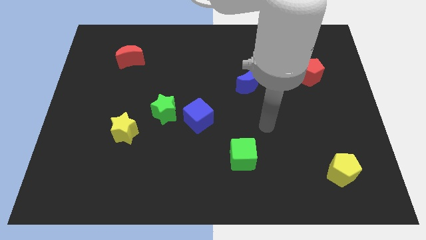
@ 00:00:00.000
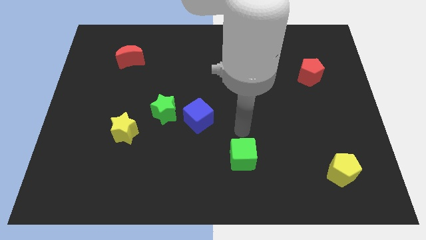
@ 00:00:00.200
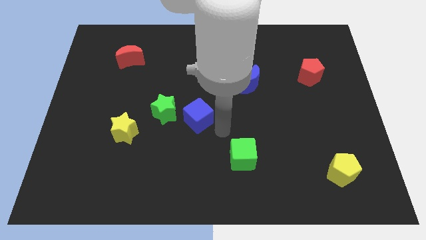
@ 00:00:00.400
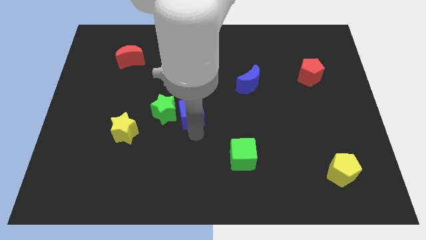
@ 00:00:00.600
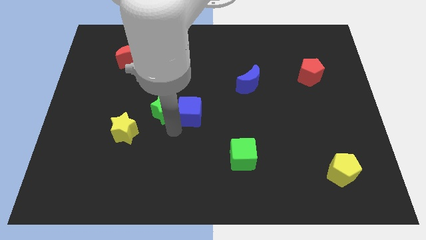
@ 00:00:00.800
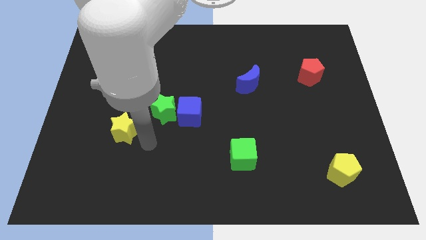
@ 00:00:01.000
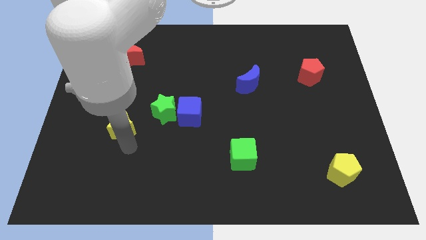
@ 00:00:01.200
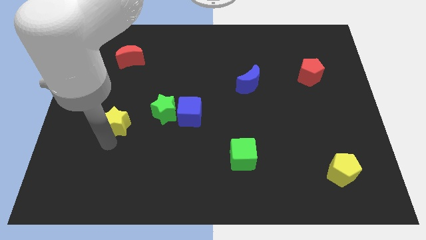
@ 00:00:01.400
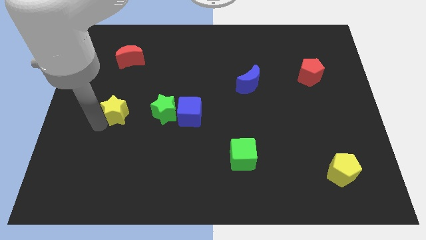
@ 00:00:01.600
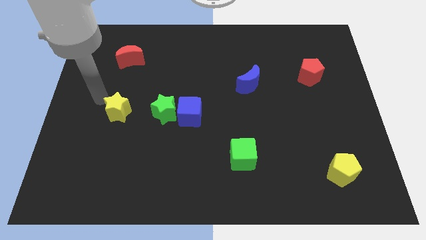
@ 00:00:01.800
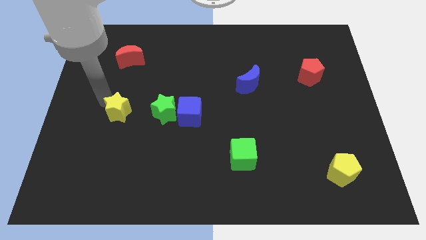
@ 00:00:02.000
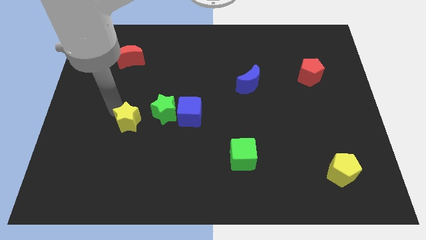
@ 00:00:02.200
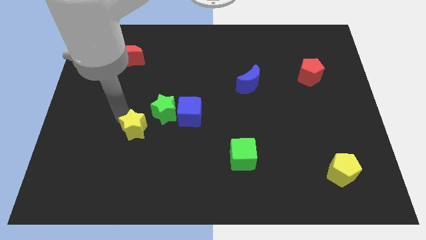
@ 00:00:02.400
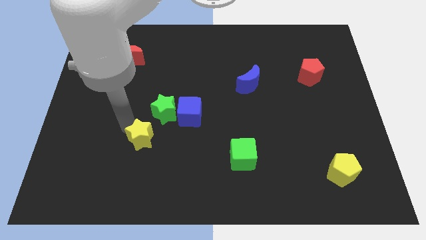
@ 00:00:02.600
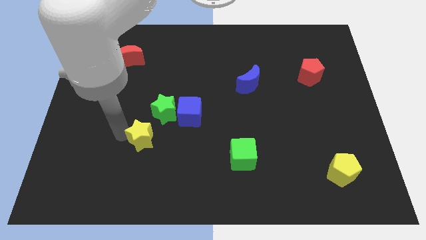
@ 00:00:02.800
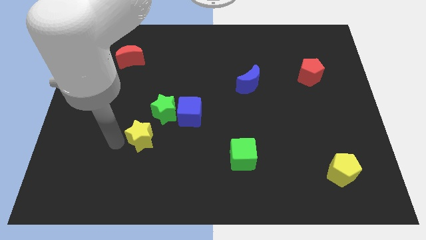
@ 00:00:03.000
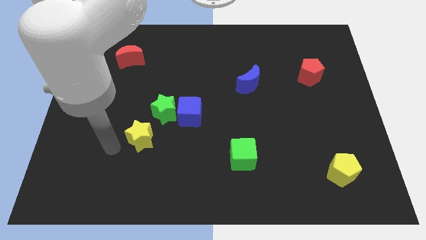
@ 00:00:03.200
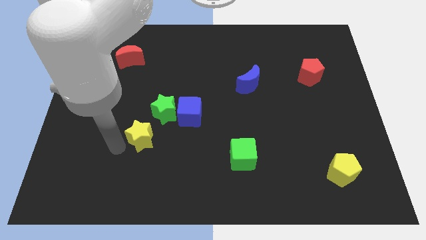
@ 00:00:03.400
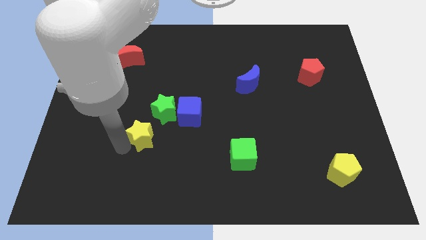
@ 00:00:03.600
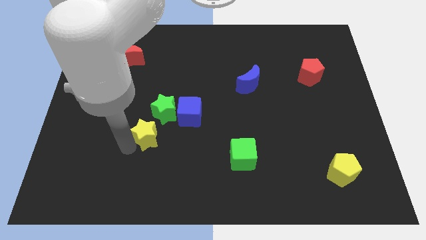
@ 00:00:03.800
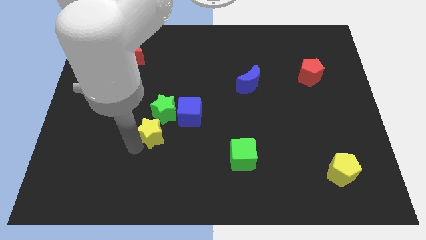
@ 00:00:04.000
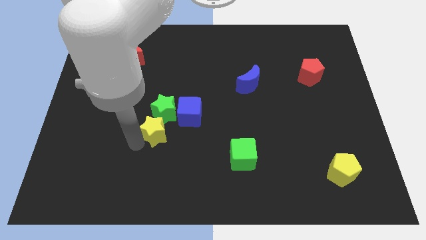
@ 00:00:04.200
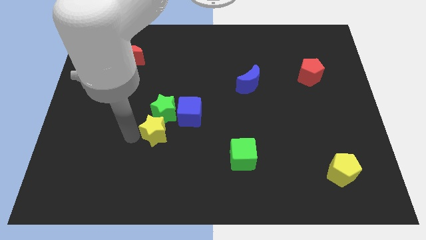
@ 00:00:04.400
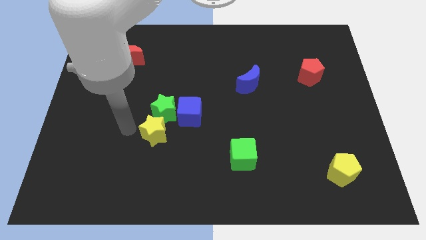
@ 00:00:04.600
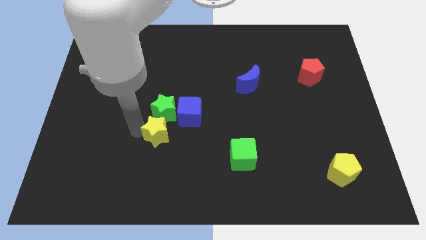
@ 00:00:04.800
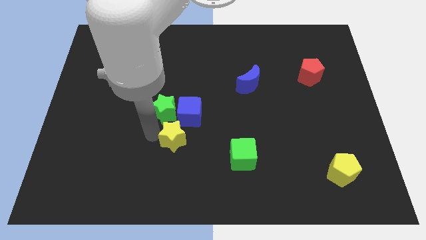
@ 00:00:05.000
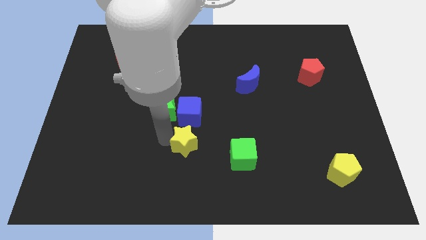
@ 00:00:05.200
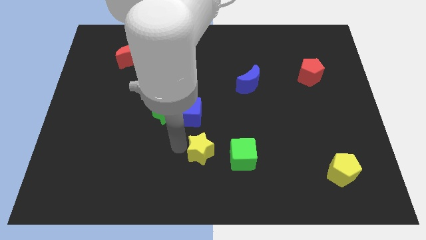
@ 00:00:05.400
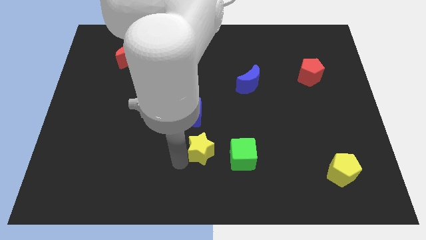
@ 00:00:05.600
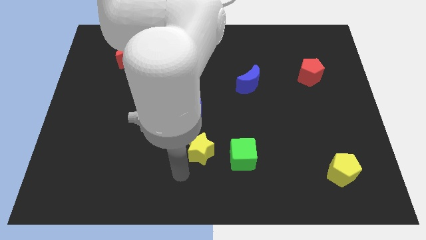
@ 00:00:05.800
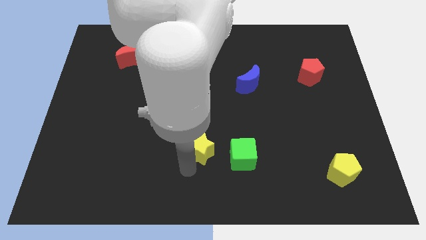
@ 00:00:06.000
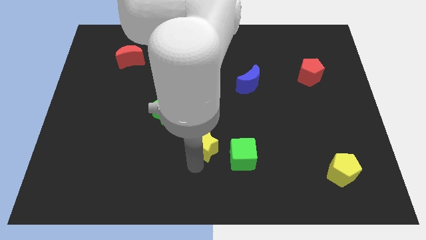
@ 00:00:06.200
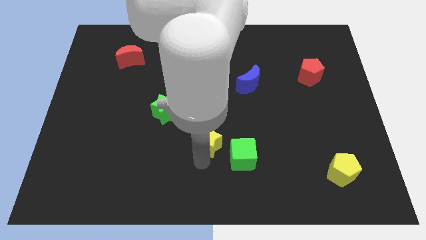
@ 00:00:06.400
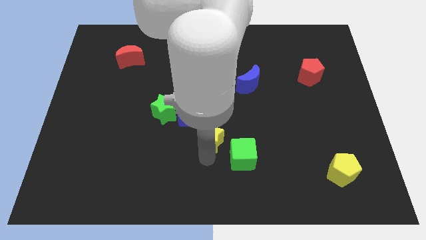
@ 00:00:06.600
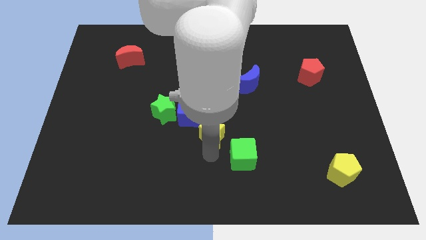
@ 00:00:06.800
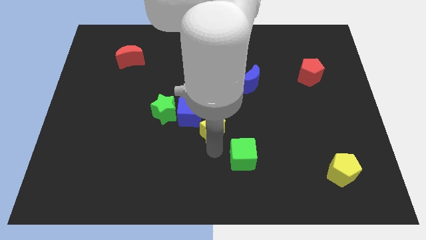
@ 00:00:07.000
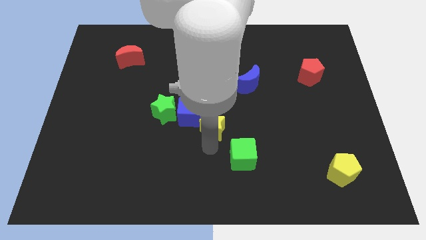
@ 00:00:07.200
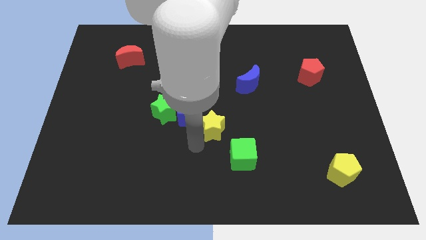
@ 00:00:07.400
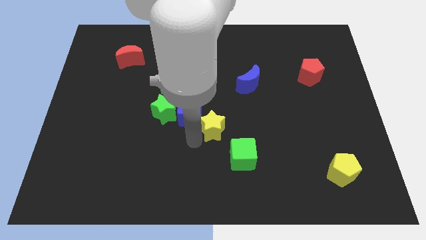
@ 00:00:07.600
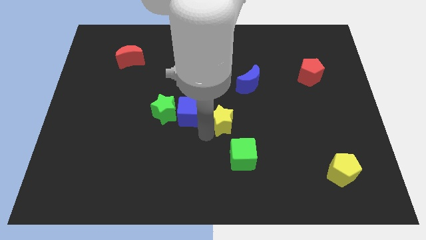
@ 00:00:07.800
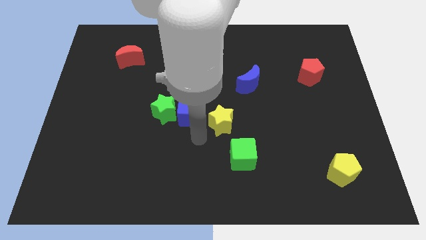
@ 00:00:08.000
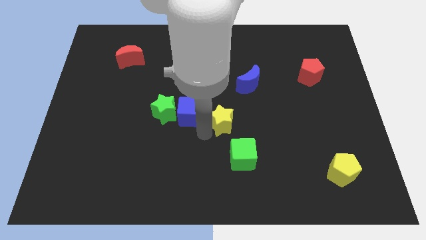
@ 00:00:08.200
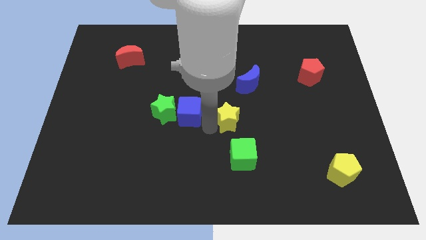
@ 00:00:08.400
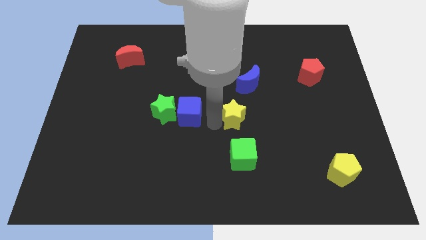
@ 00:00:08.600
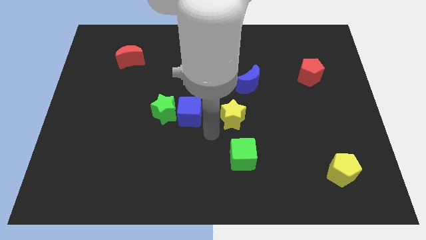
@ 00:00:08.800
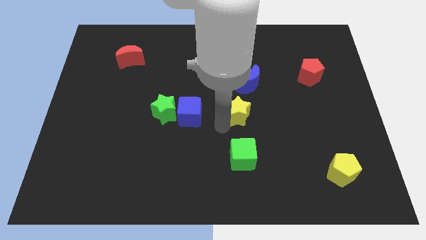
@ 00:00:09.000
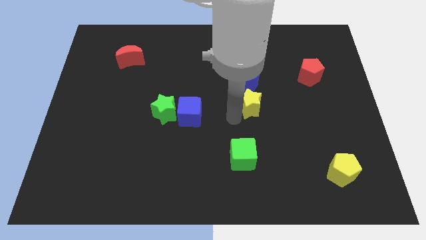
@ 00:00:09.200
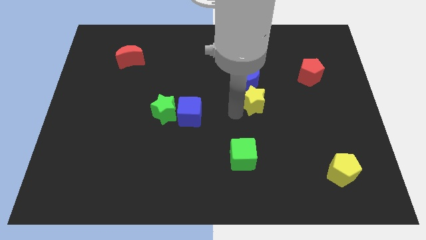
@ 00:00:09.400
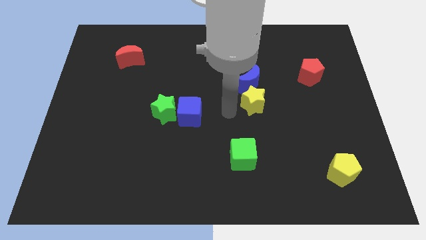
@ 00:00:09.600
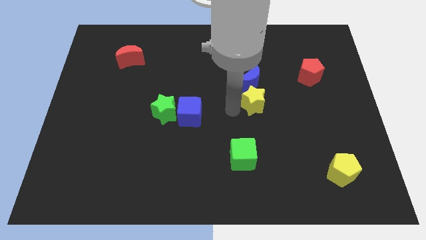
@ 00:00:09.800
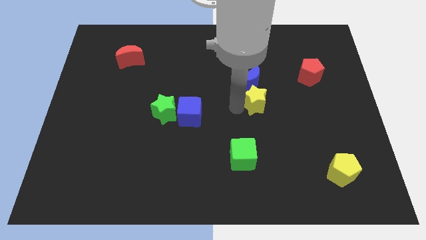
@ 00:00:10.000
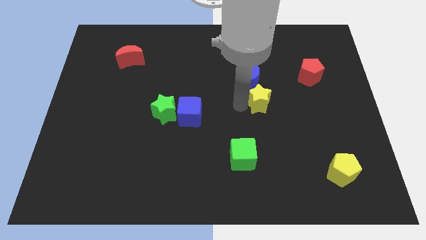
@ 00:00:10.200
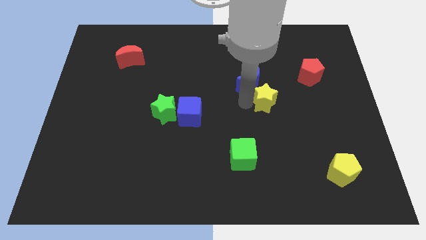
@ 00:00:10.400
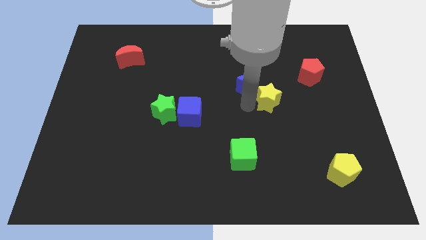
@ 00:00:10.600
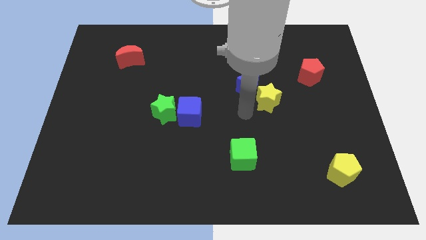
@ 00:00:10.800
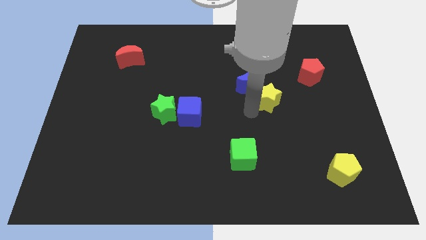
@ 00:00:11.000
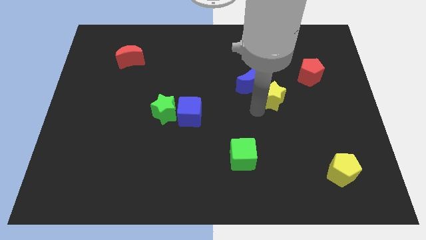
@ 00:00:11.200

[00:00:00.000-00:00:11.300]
slide the yellow star to the bottom left of the red pentagon

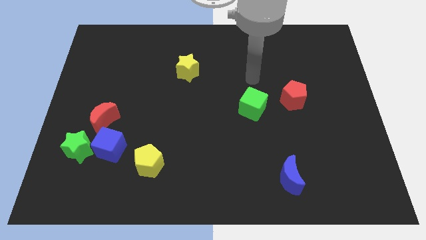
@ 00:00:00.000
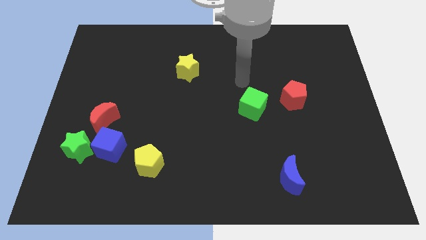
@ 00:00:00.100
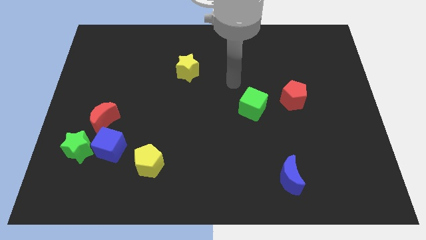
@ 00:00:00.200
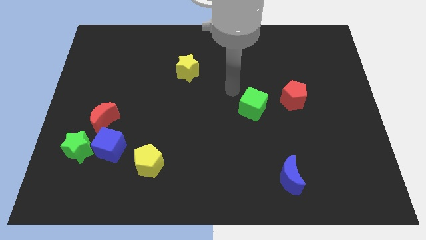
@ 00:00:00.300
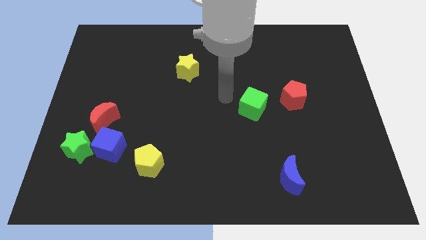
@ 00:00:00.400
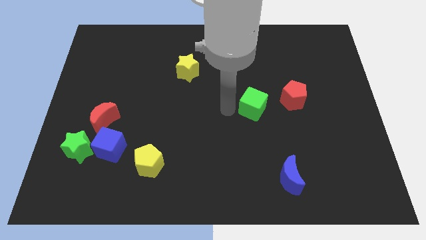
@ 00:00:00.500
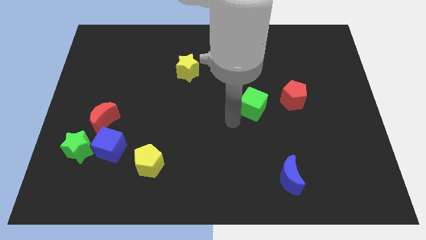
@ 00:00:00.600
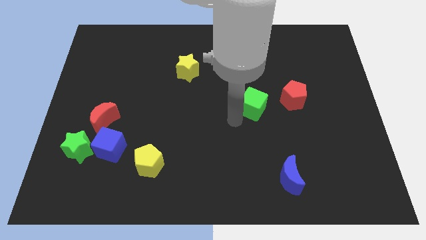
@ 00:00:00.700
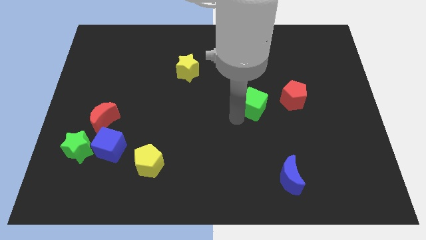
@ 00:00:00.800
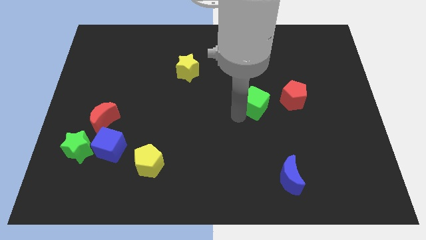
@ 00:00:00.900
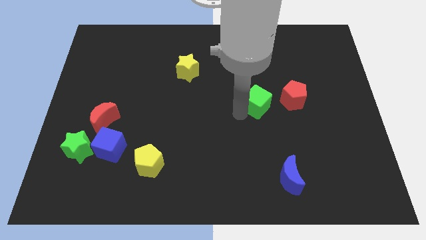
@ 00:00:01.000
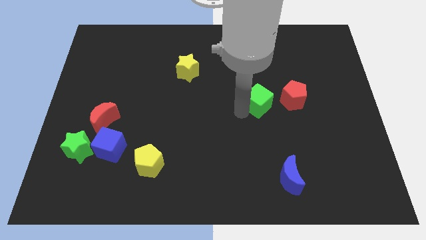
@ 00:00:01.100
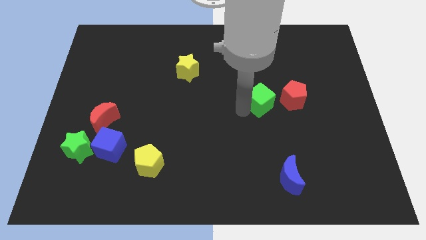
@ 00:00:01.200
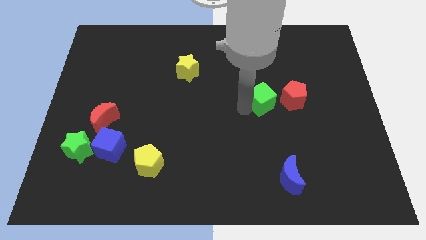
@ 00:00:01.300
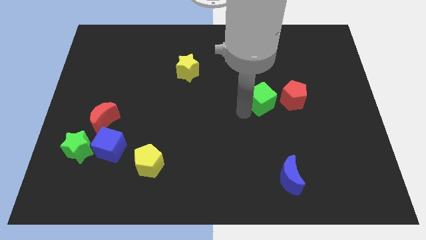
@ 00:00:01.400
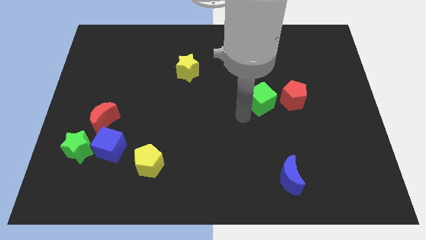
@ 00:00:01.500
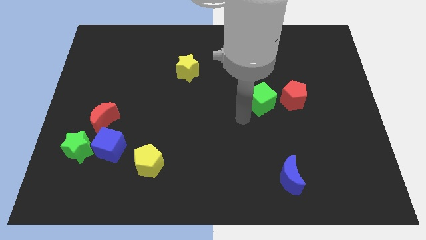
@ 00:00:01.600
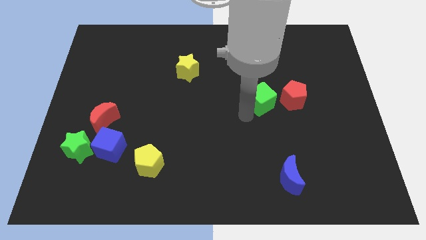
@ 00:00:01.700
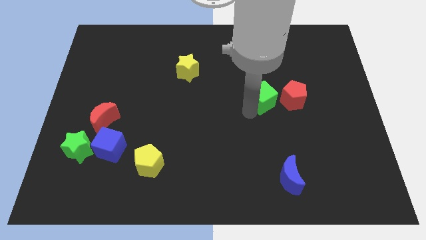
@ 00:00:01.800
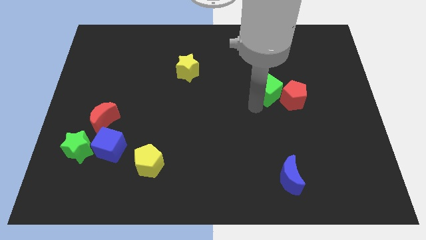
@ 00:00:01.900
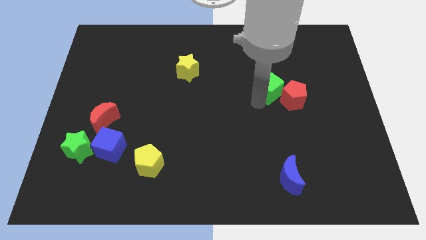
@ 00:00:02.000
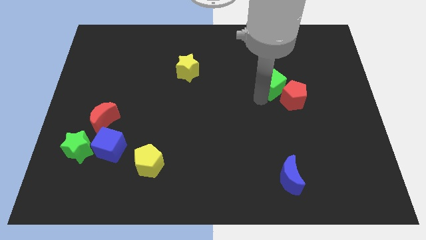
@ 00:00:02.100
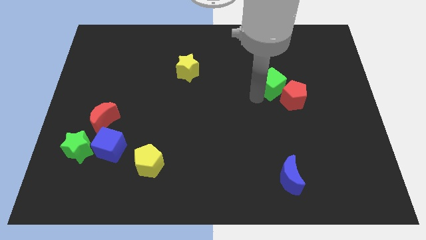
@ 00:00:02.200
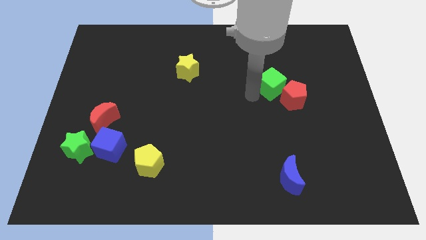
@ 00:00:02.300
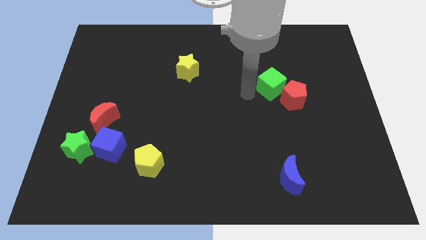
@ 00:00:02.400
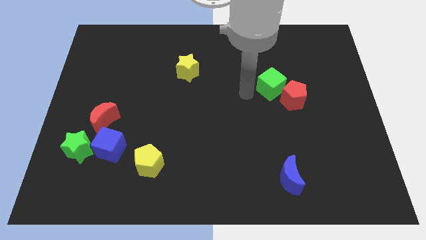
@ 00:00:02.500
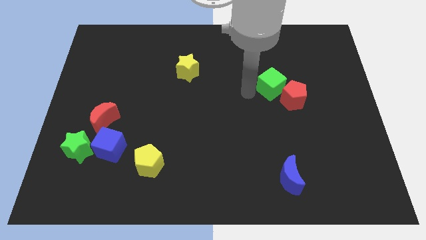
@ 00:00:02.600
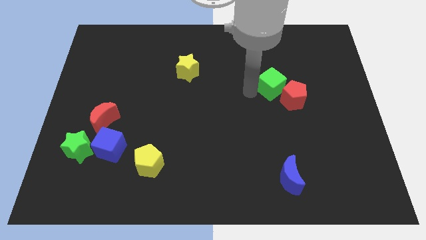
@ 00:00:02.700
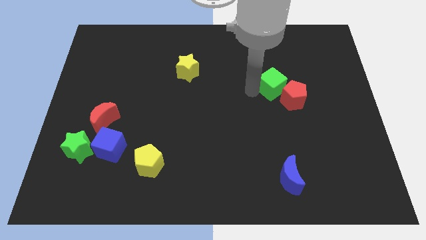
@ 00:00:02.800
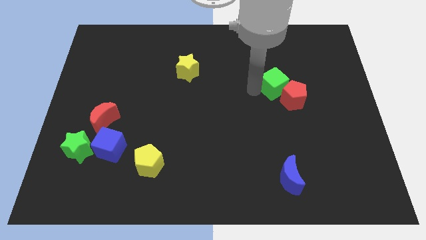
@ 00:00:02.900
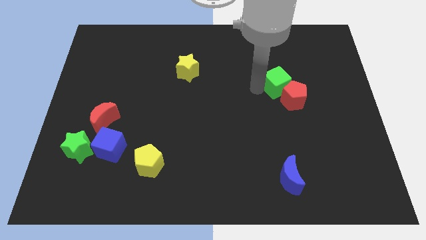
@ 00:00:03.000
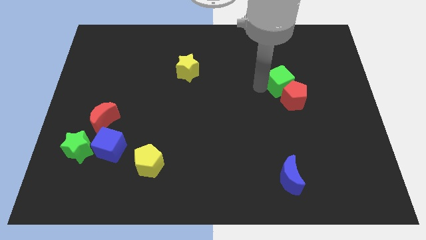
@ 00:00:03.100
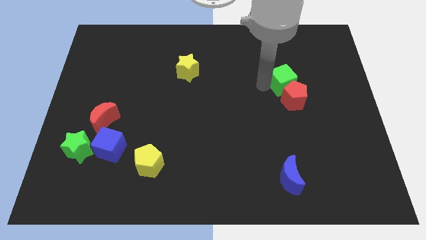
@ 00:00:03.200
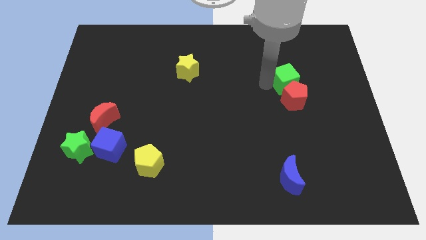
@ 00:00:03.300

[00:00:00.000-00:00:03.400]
put the green cube to the top right side of the red pentagon
